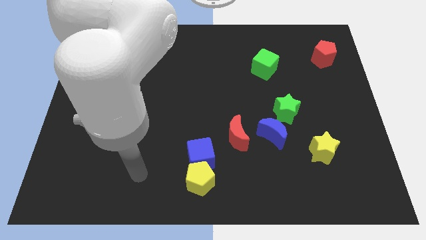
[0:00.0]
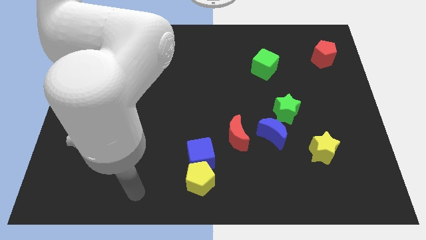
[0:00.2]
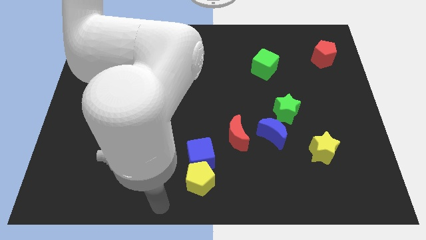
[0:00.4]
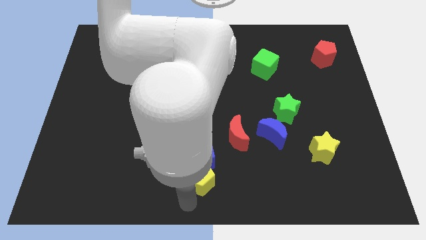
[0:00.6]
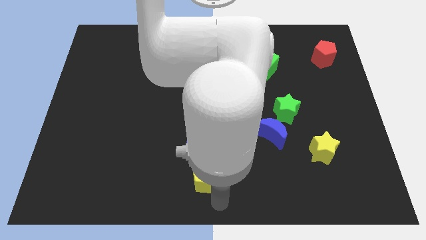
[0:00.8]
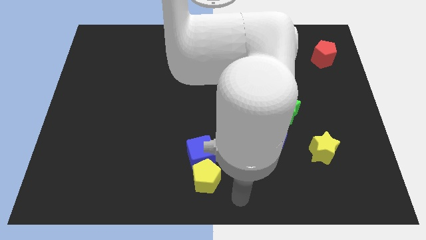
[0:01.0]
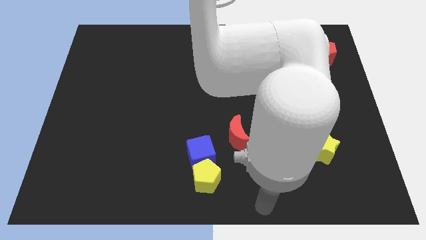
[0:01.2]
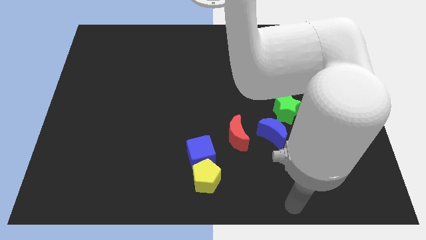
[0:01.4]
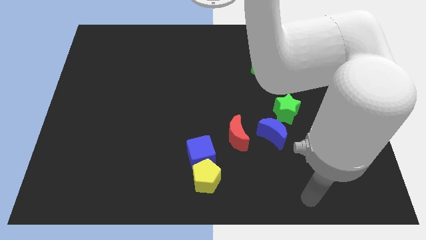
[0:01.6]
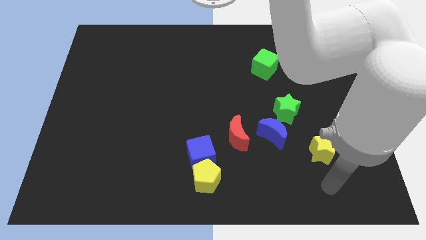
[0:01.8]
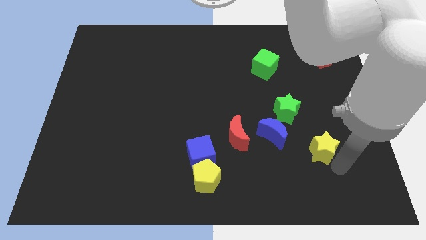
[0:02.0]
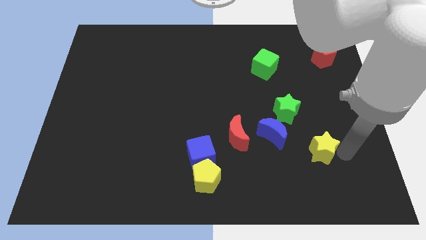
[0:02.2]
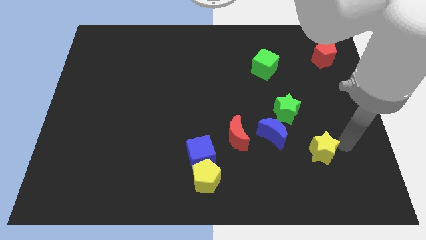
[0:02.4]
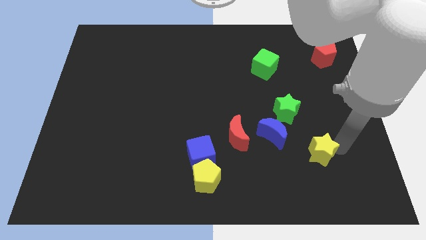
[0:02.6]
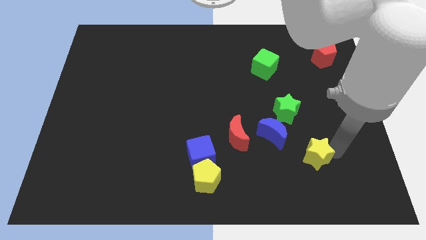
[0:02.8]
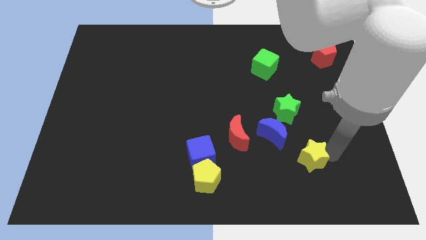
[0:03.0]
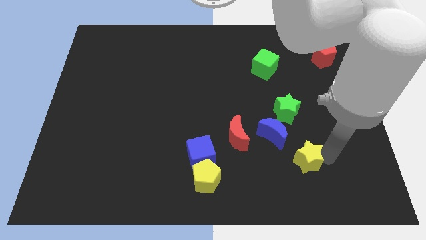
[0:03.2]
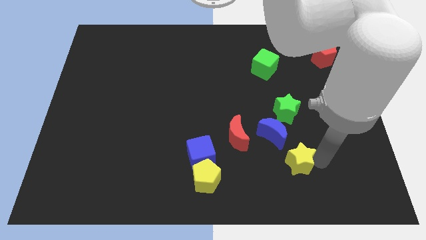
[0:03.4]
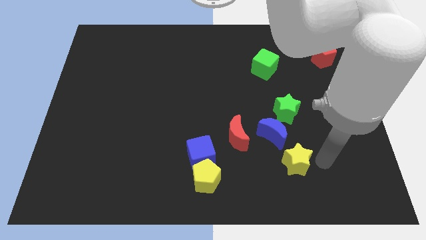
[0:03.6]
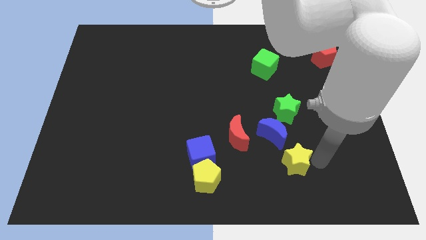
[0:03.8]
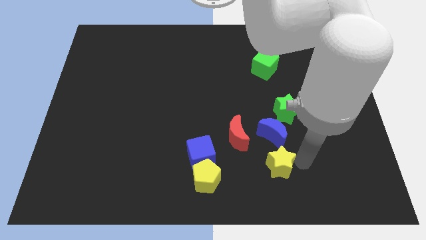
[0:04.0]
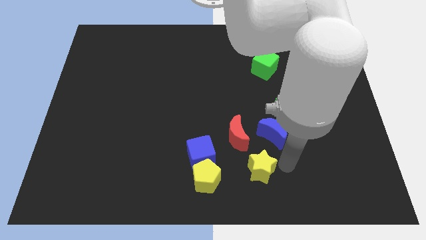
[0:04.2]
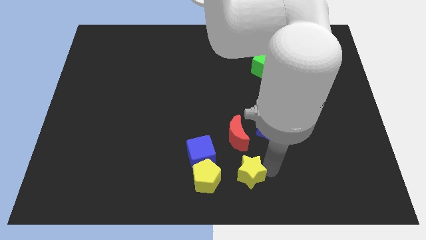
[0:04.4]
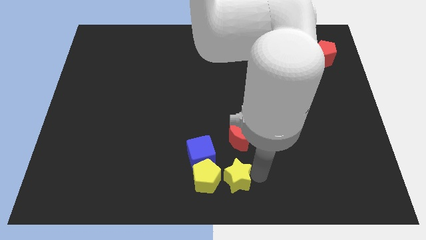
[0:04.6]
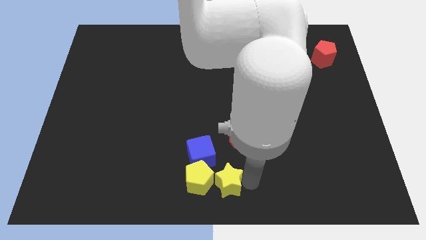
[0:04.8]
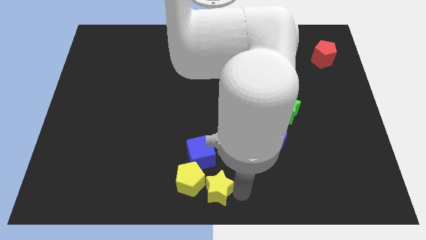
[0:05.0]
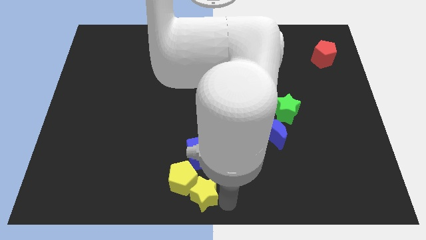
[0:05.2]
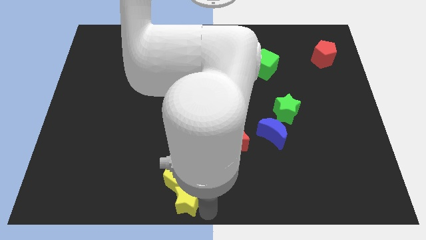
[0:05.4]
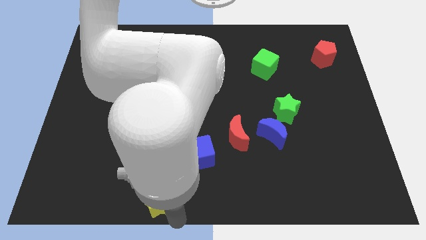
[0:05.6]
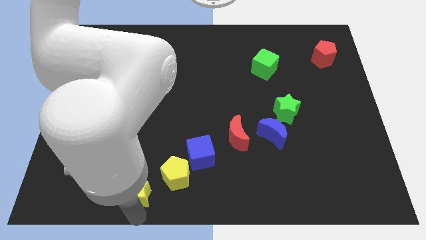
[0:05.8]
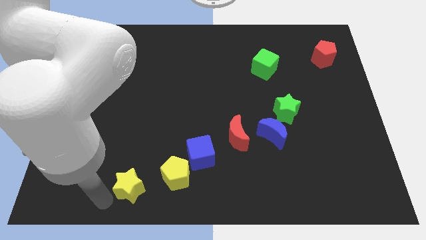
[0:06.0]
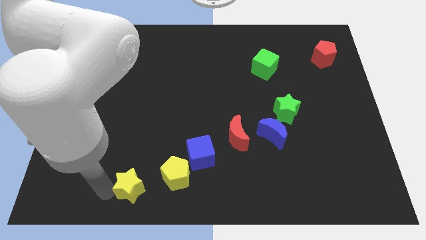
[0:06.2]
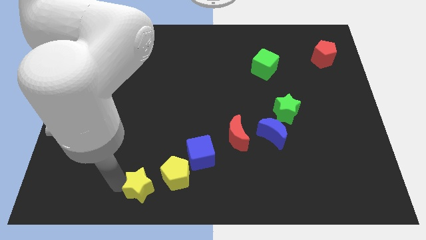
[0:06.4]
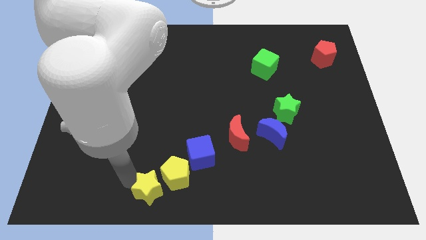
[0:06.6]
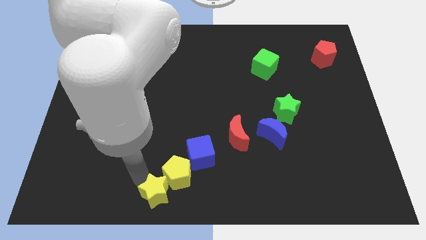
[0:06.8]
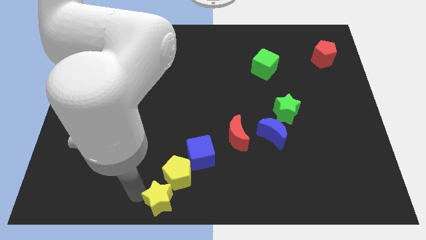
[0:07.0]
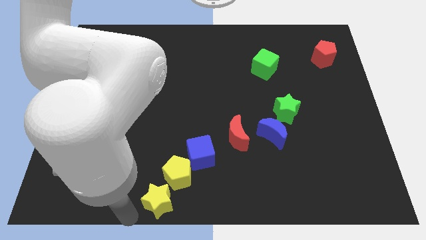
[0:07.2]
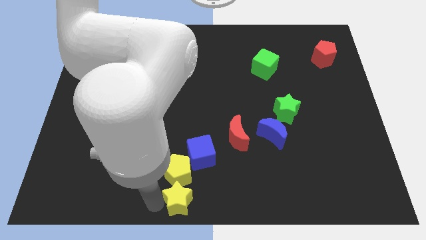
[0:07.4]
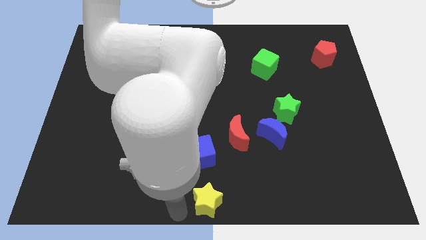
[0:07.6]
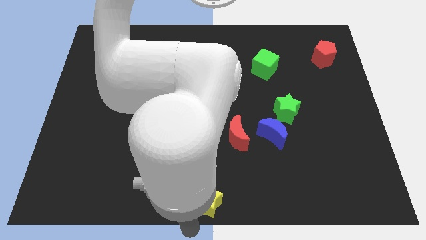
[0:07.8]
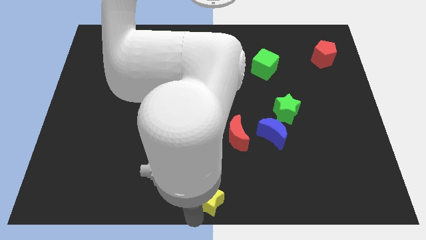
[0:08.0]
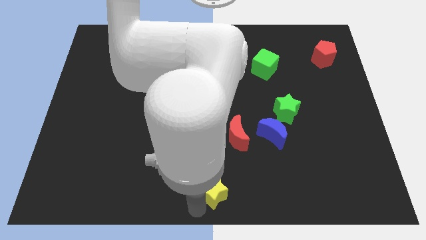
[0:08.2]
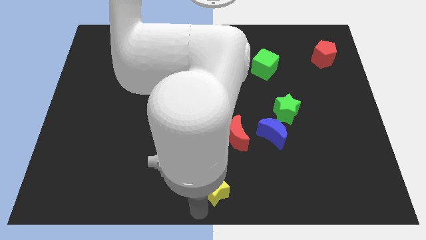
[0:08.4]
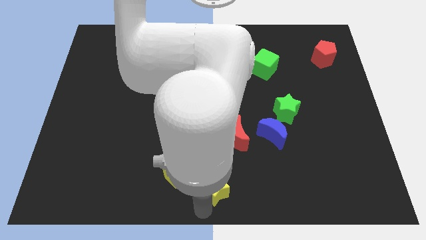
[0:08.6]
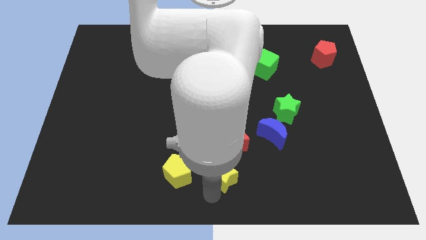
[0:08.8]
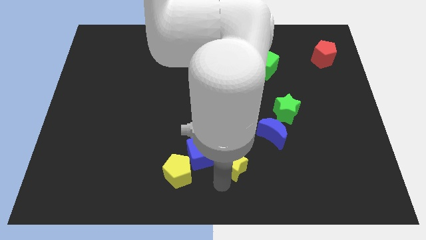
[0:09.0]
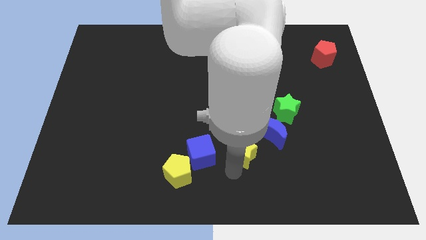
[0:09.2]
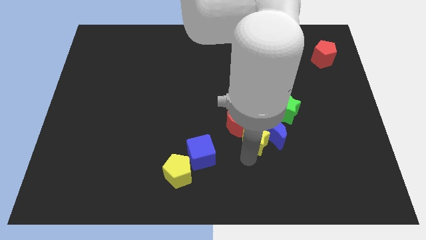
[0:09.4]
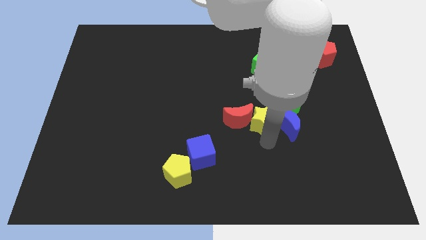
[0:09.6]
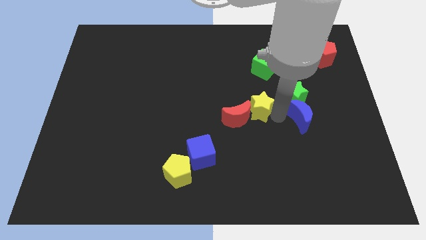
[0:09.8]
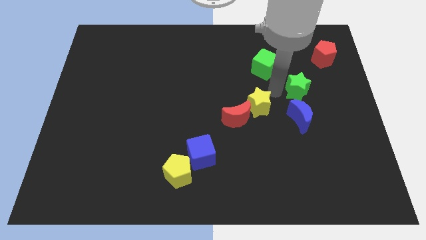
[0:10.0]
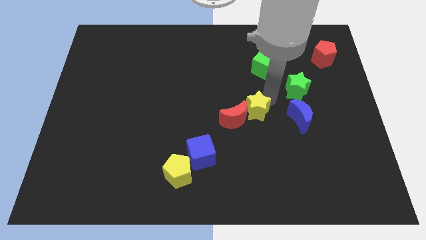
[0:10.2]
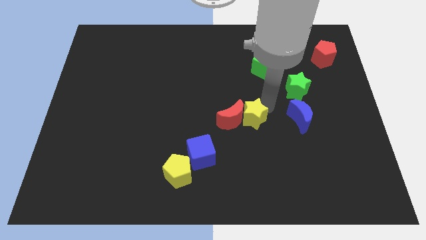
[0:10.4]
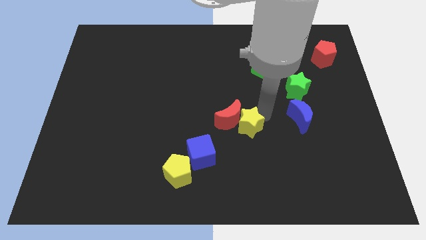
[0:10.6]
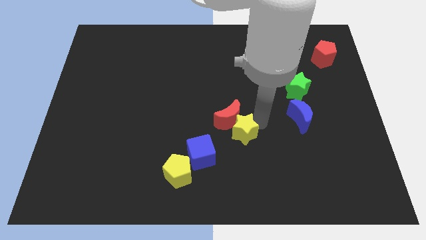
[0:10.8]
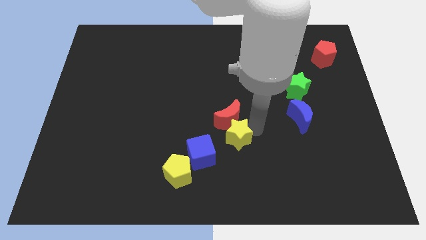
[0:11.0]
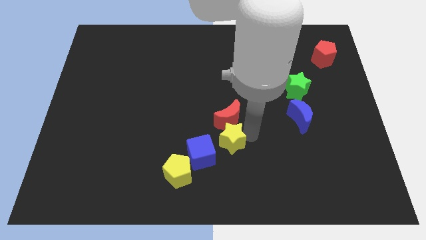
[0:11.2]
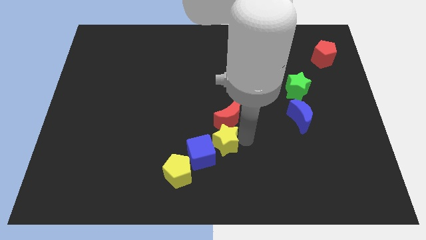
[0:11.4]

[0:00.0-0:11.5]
put the yellow star next to the blue cube

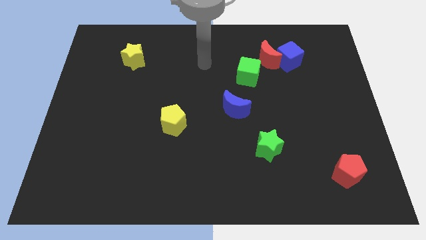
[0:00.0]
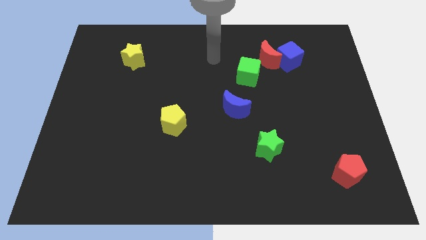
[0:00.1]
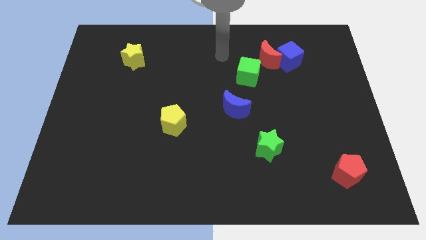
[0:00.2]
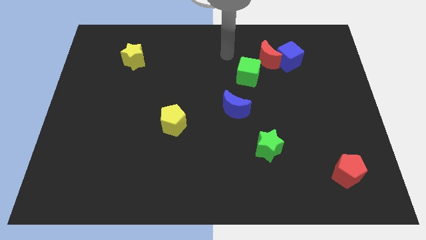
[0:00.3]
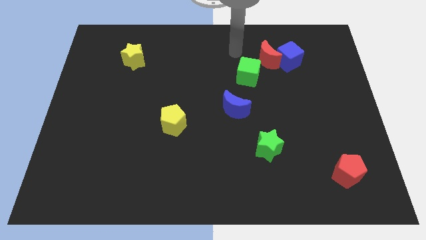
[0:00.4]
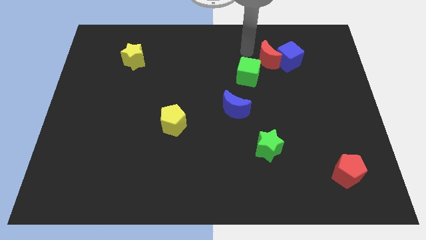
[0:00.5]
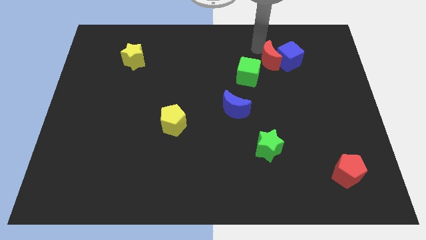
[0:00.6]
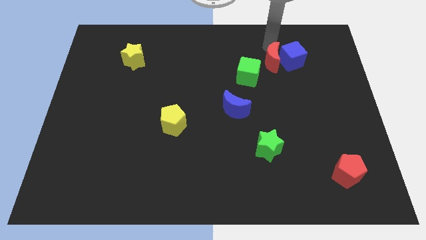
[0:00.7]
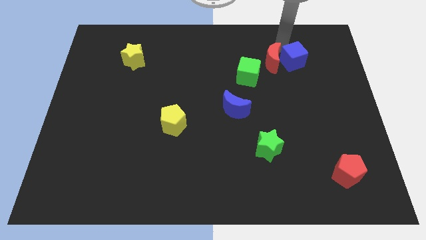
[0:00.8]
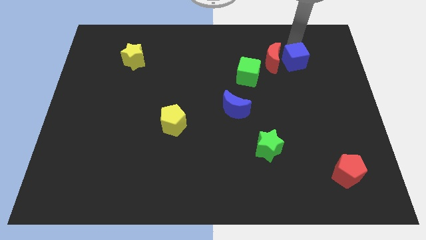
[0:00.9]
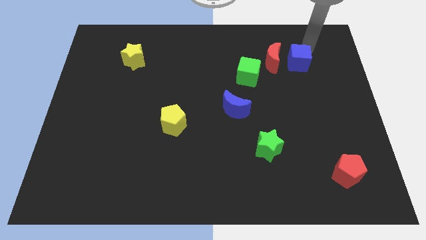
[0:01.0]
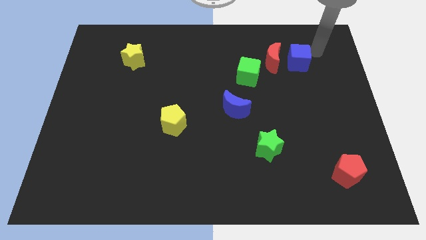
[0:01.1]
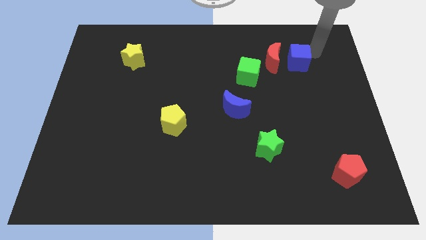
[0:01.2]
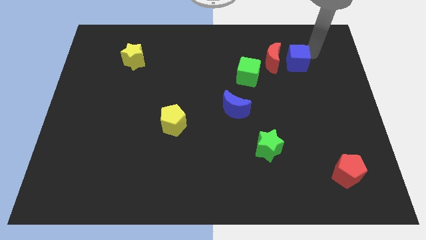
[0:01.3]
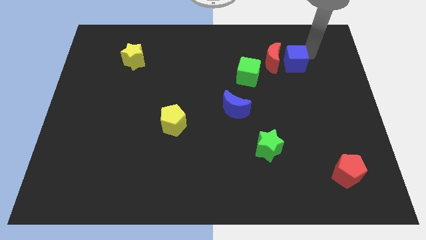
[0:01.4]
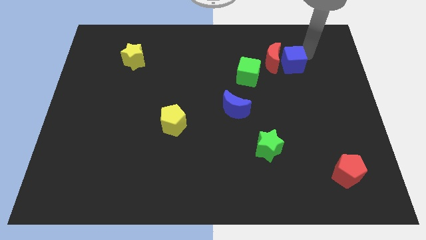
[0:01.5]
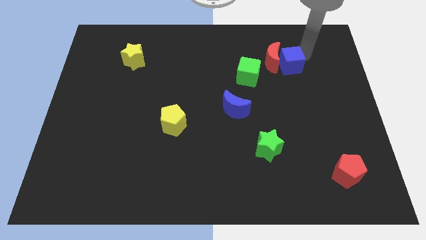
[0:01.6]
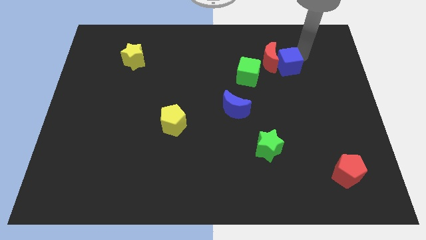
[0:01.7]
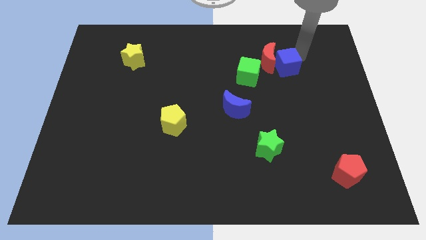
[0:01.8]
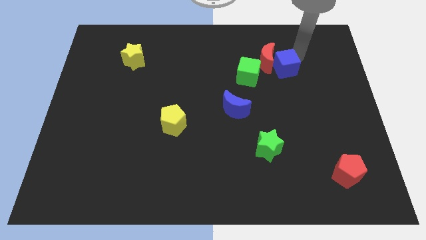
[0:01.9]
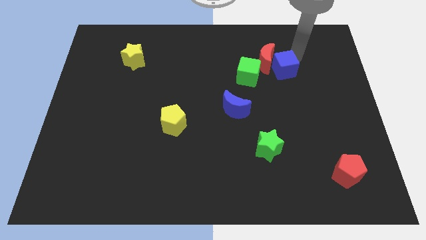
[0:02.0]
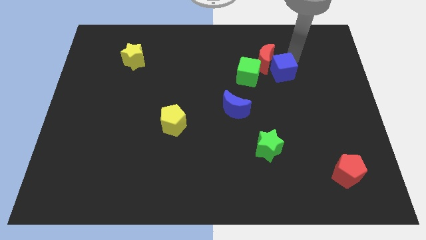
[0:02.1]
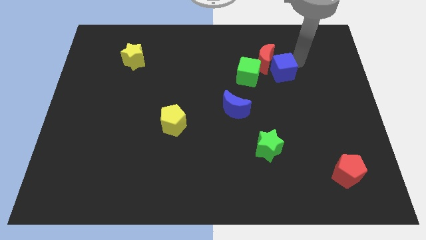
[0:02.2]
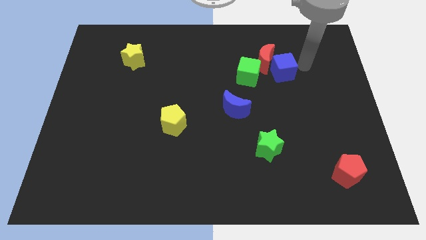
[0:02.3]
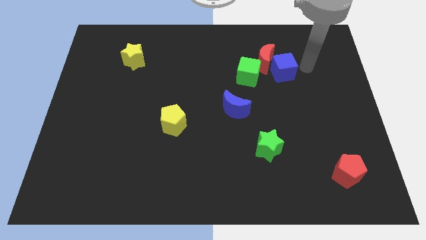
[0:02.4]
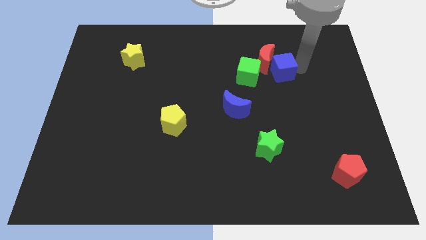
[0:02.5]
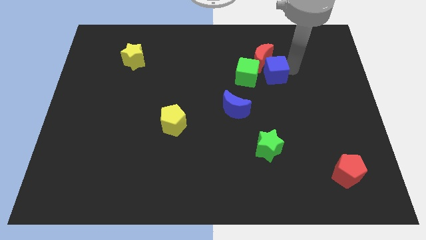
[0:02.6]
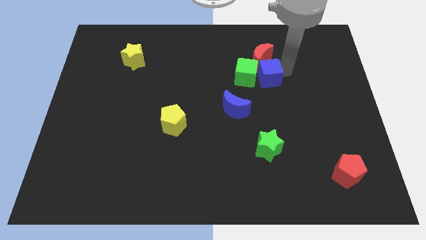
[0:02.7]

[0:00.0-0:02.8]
move the blue cube to the green cube
